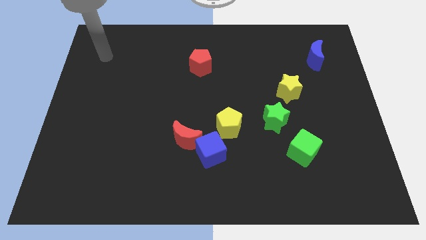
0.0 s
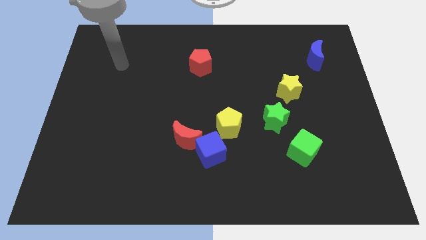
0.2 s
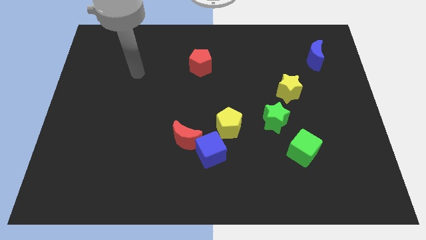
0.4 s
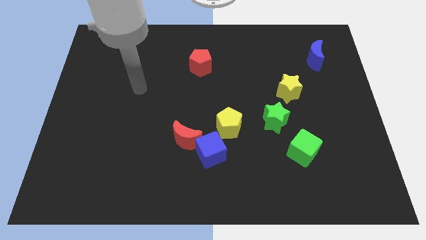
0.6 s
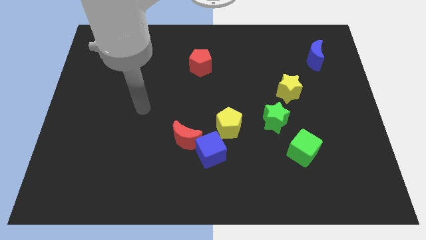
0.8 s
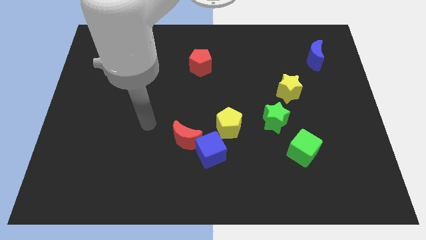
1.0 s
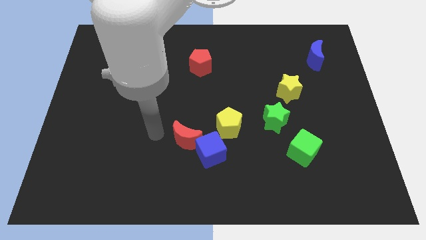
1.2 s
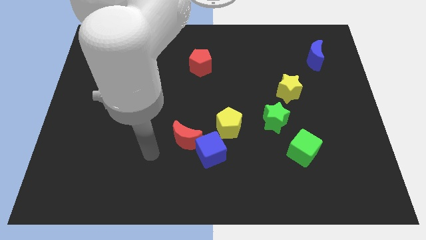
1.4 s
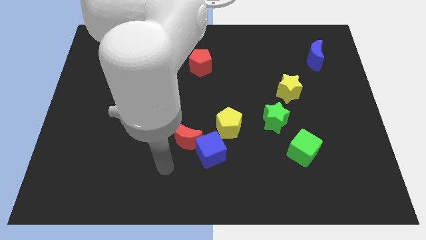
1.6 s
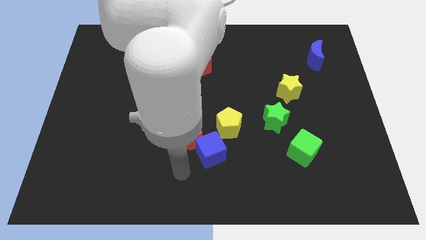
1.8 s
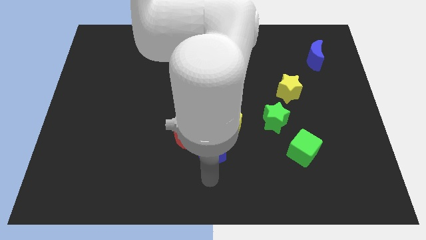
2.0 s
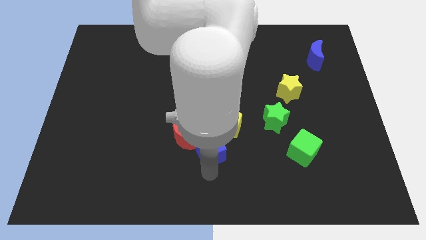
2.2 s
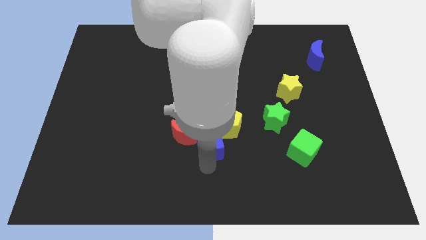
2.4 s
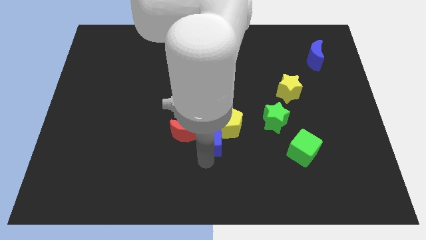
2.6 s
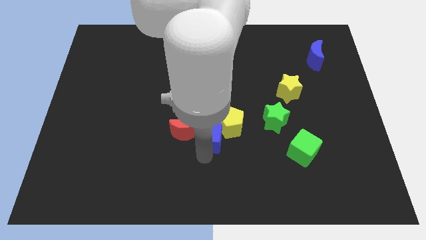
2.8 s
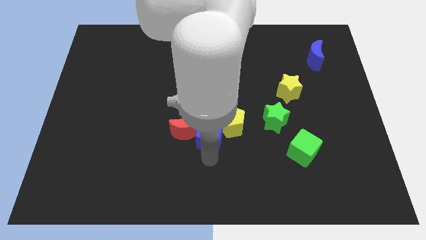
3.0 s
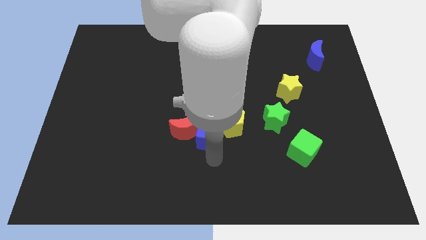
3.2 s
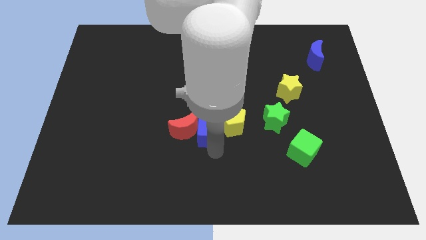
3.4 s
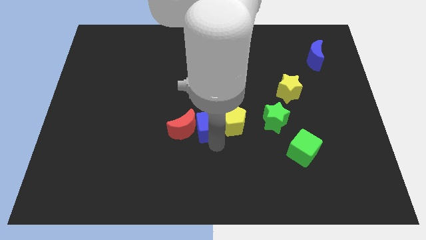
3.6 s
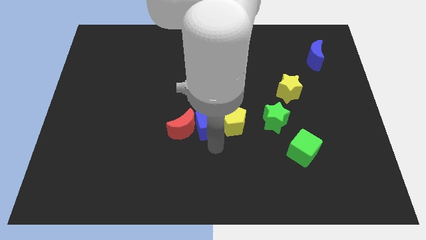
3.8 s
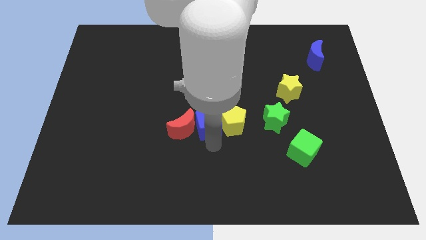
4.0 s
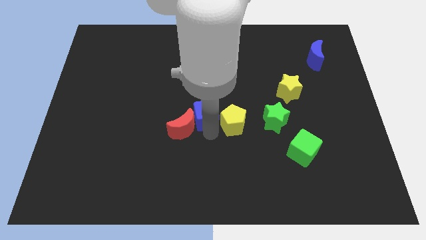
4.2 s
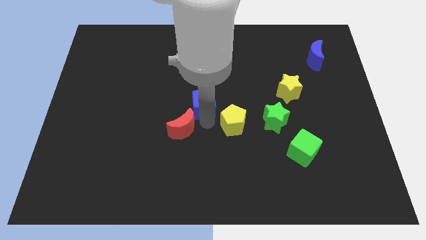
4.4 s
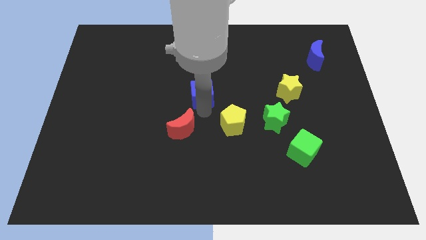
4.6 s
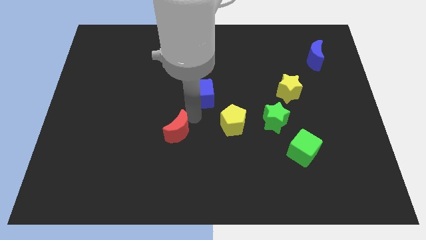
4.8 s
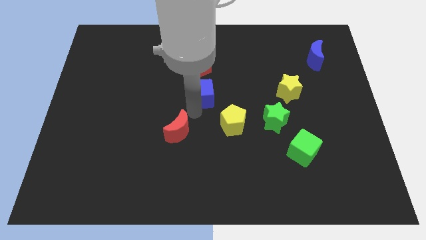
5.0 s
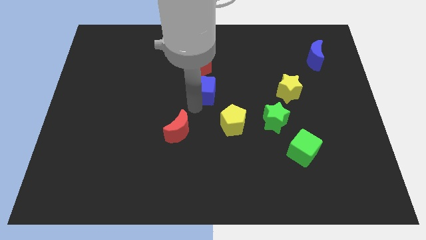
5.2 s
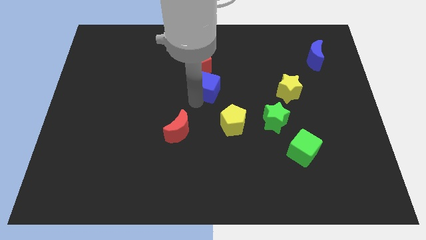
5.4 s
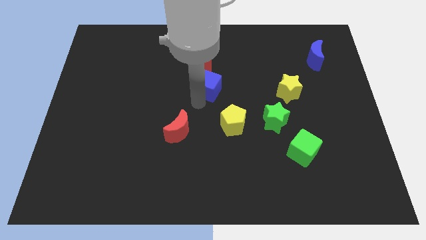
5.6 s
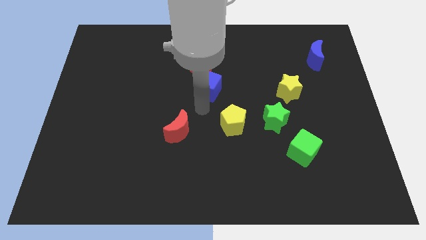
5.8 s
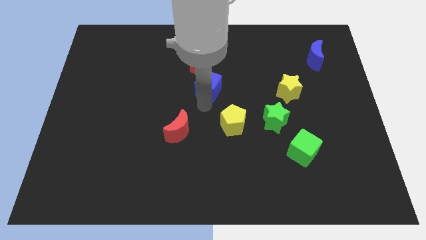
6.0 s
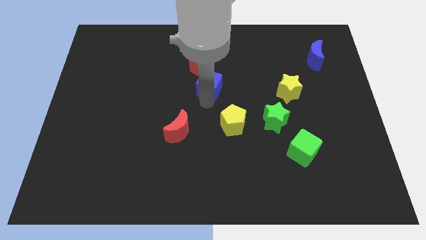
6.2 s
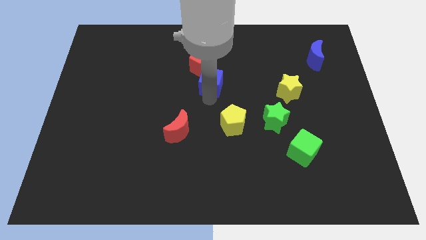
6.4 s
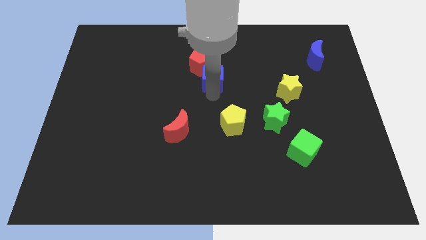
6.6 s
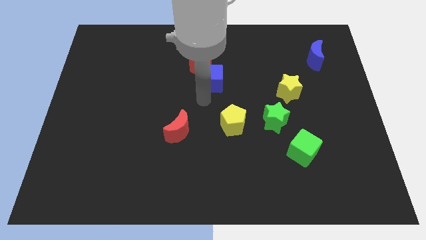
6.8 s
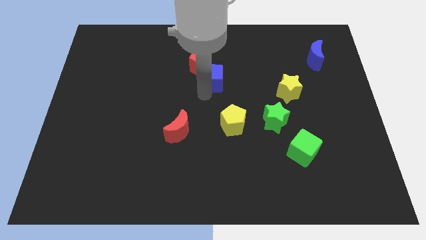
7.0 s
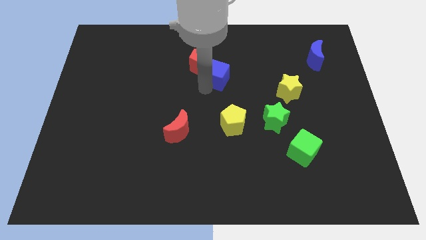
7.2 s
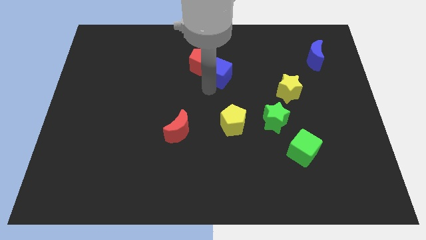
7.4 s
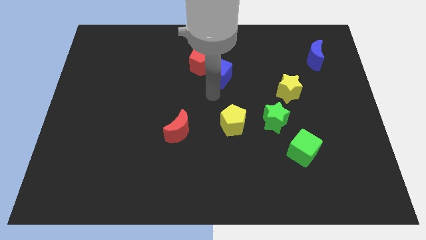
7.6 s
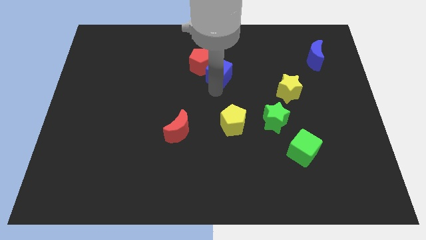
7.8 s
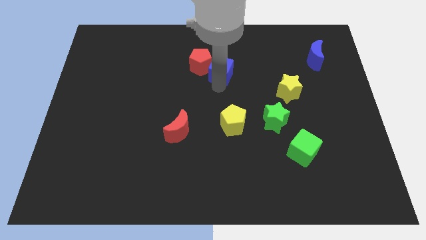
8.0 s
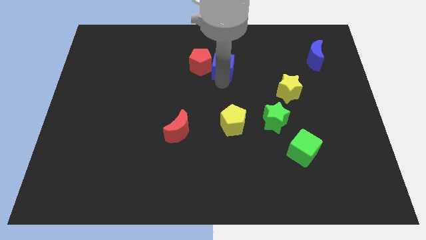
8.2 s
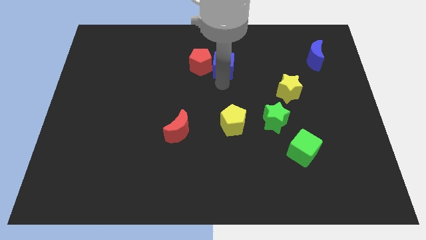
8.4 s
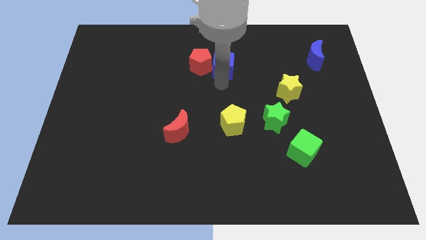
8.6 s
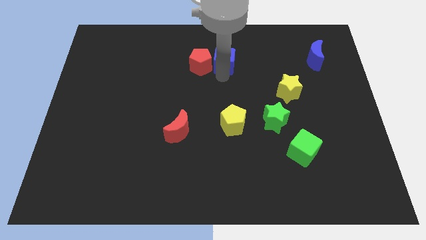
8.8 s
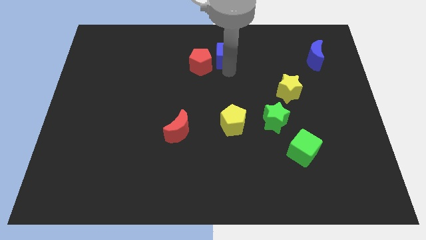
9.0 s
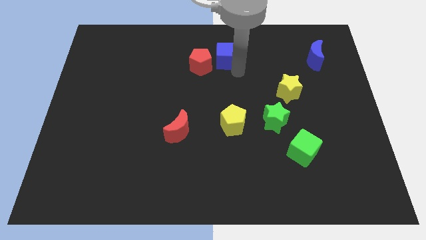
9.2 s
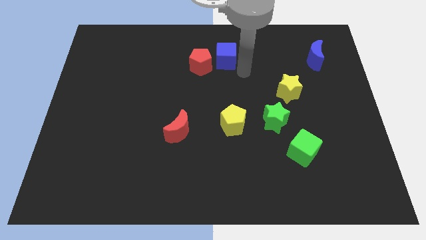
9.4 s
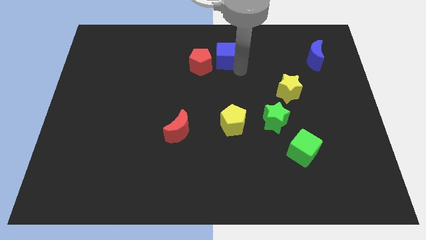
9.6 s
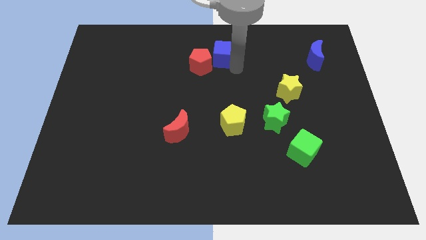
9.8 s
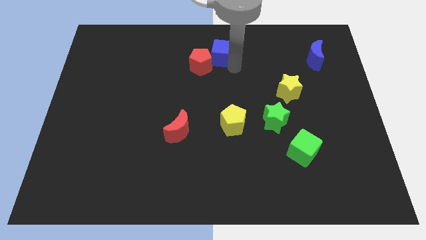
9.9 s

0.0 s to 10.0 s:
slide the blue cube to the towards your base

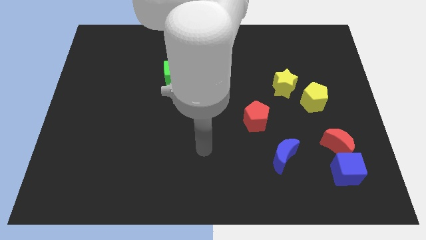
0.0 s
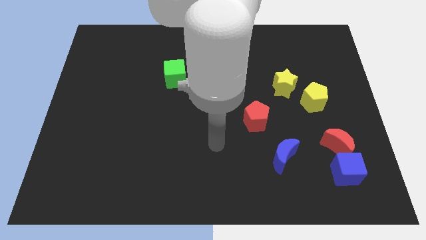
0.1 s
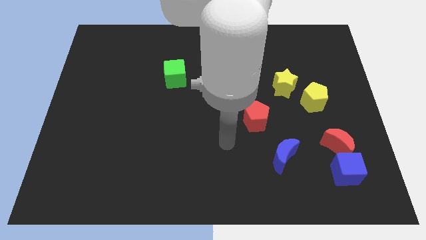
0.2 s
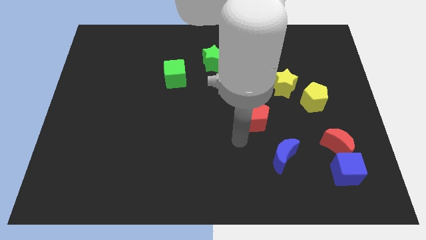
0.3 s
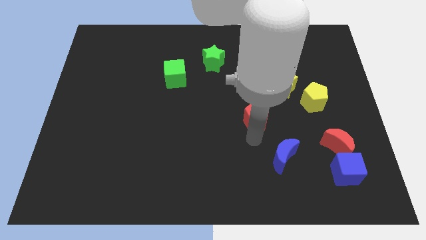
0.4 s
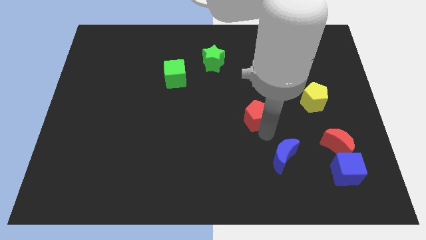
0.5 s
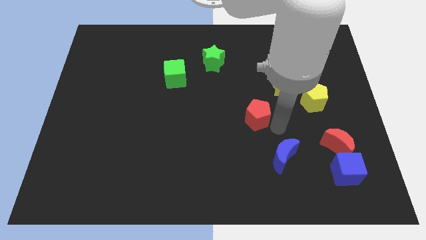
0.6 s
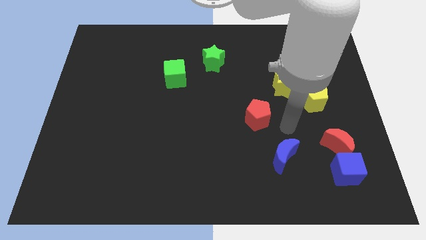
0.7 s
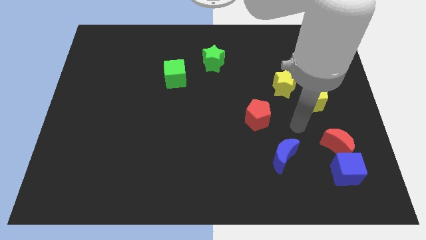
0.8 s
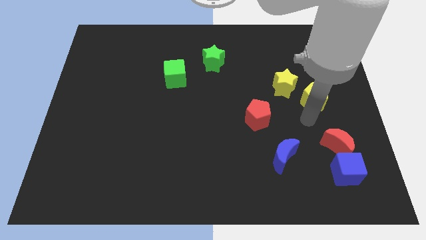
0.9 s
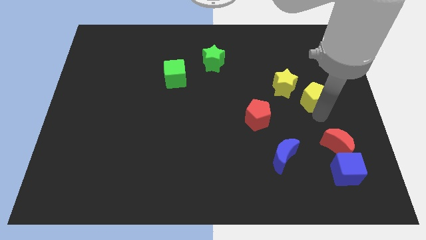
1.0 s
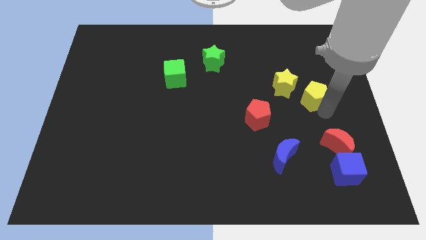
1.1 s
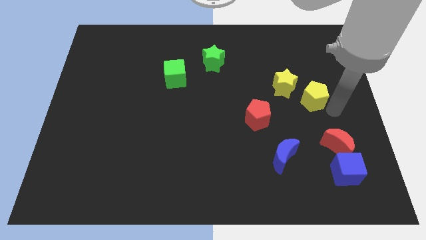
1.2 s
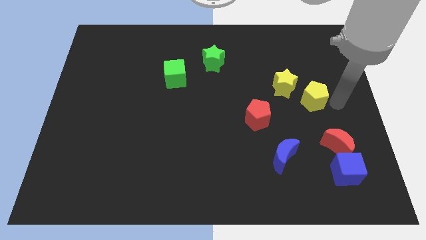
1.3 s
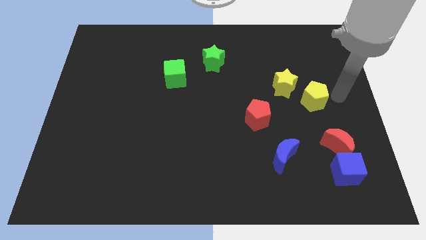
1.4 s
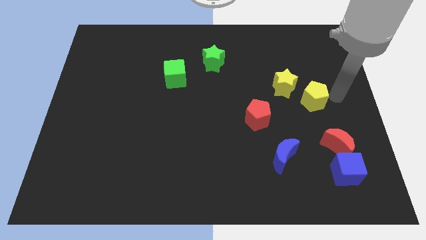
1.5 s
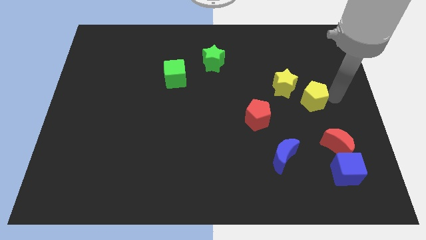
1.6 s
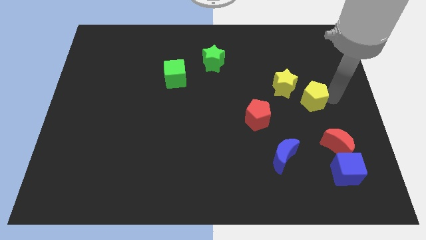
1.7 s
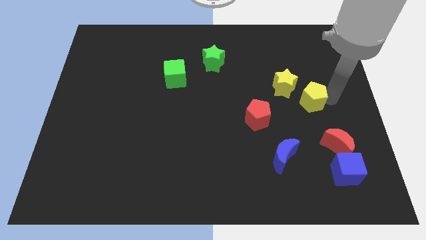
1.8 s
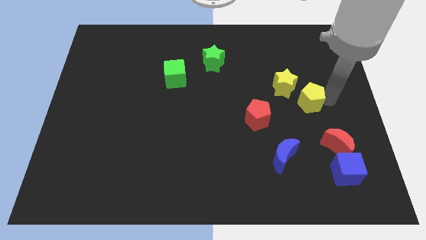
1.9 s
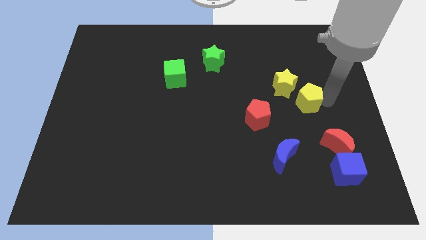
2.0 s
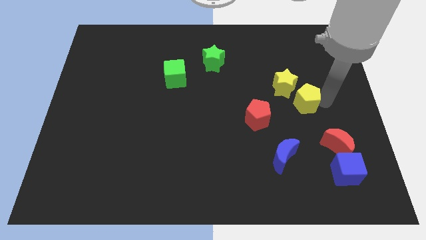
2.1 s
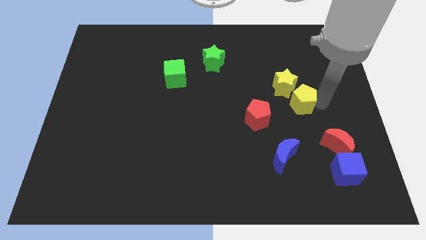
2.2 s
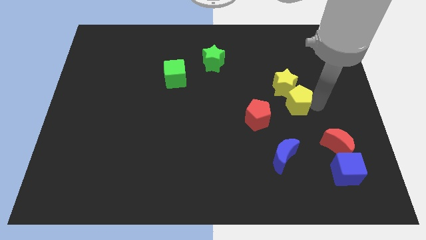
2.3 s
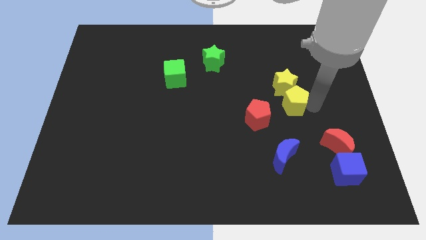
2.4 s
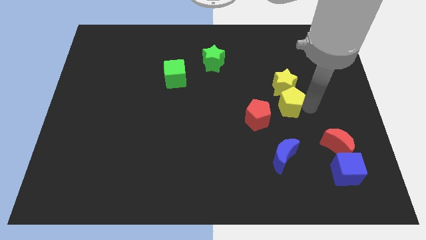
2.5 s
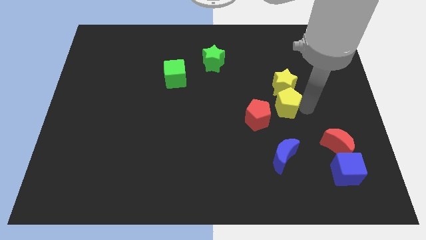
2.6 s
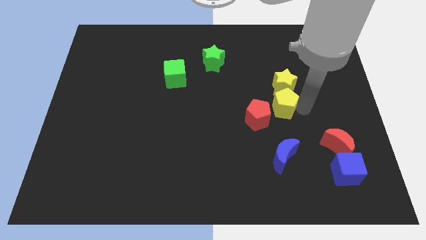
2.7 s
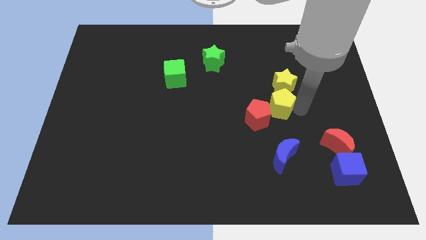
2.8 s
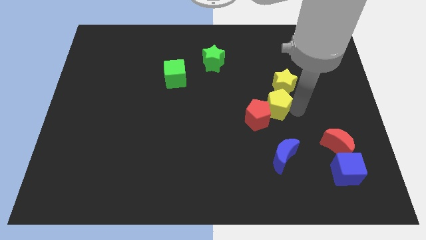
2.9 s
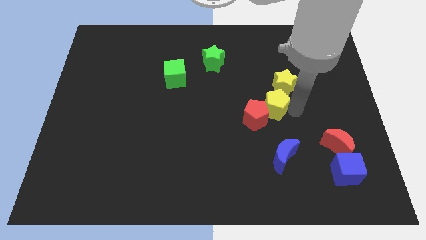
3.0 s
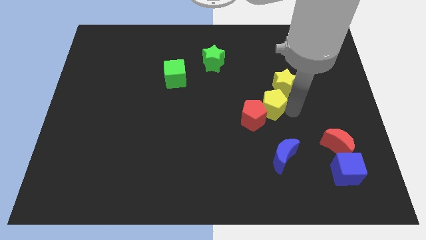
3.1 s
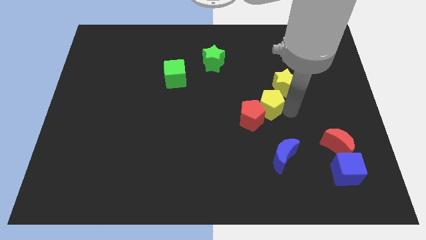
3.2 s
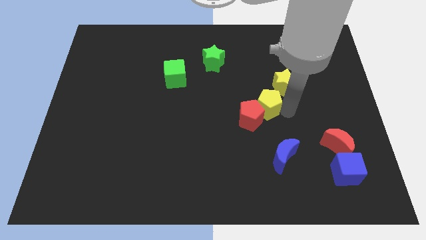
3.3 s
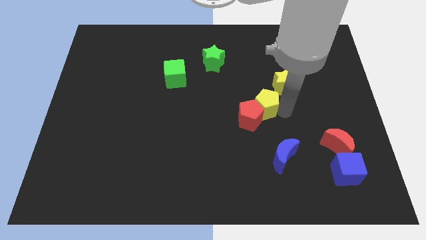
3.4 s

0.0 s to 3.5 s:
push the yellow pentagon to the center
